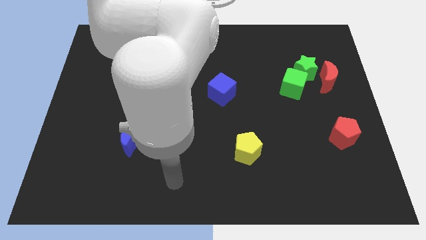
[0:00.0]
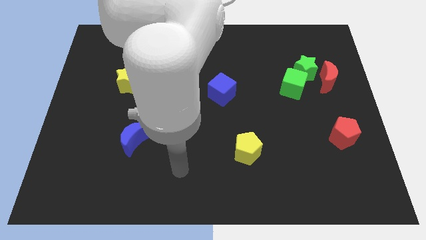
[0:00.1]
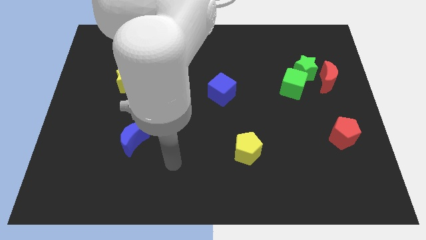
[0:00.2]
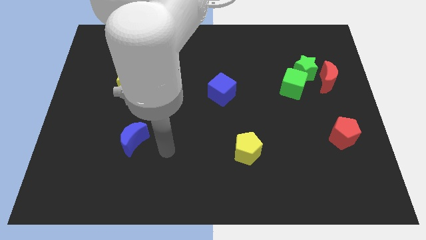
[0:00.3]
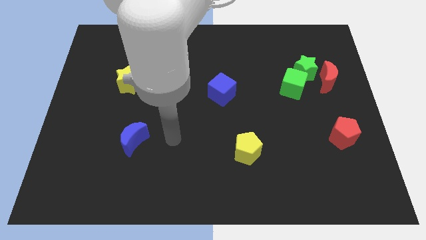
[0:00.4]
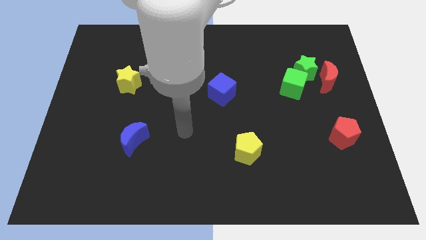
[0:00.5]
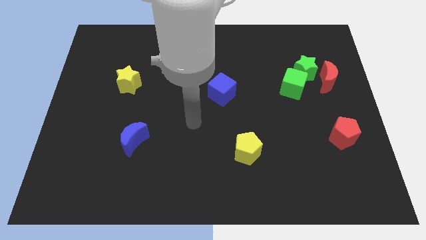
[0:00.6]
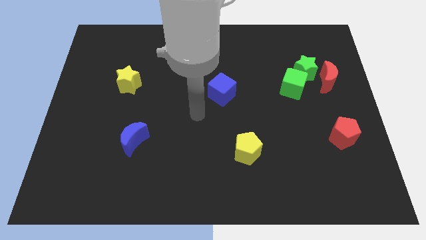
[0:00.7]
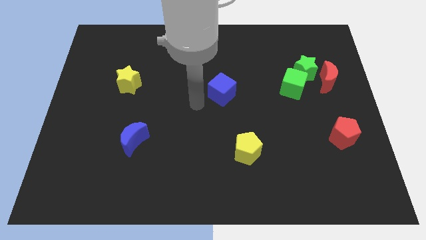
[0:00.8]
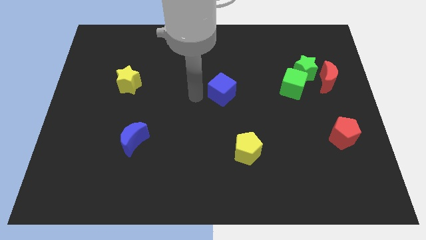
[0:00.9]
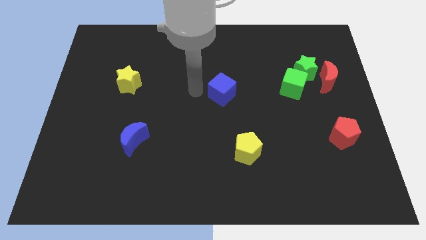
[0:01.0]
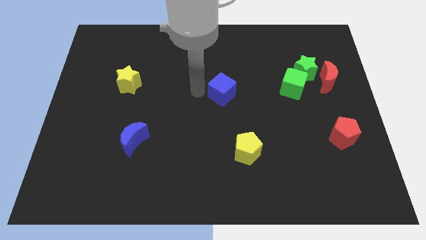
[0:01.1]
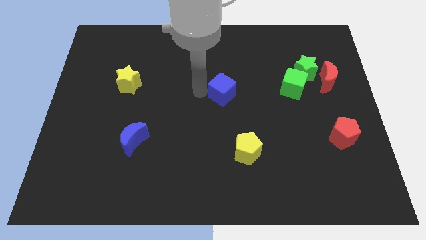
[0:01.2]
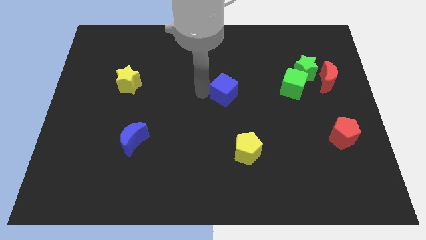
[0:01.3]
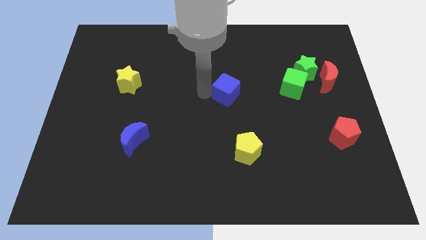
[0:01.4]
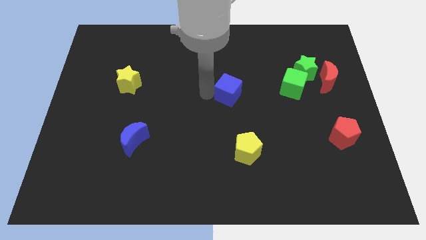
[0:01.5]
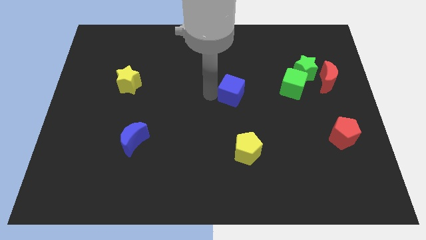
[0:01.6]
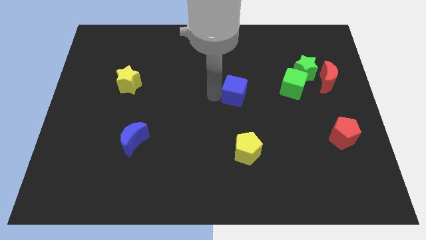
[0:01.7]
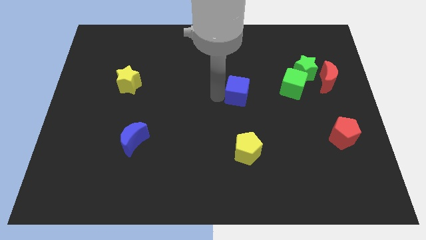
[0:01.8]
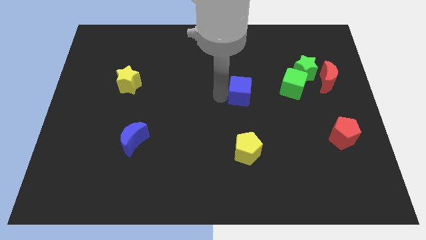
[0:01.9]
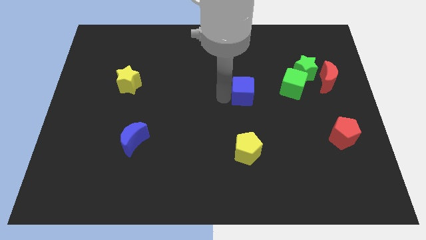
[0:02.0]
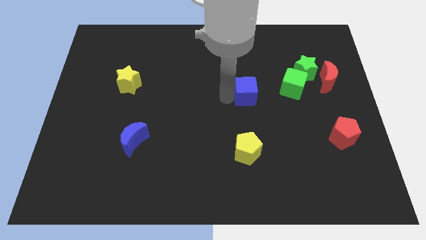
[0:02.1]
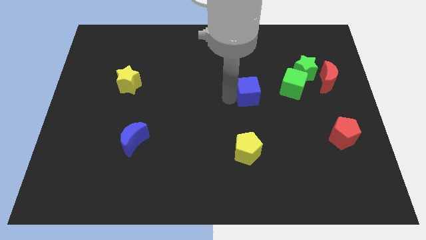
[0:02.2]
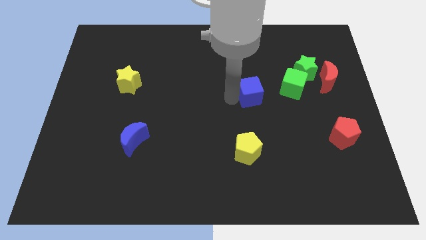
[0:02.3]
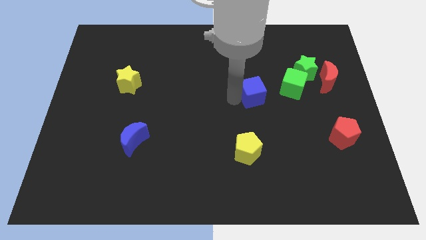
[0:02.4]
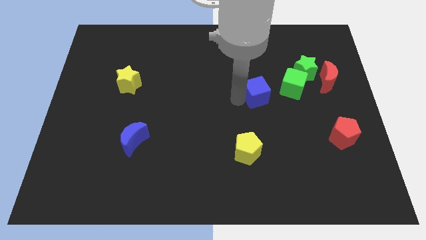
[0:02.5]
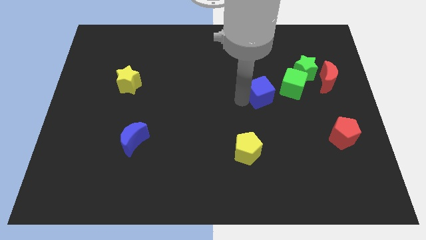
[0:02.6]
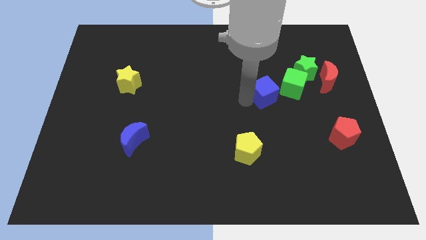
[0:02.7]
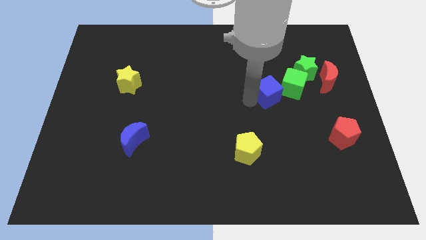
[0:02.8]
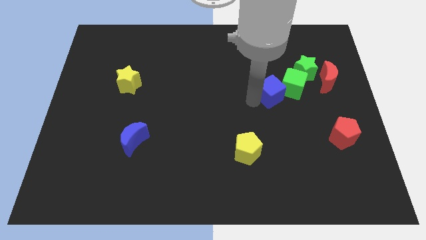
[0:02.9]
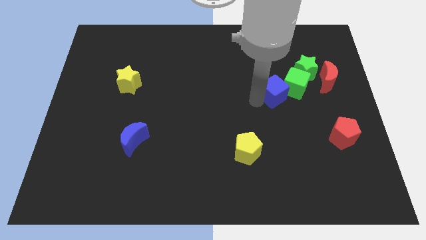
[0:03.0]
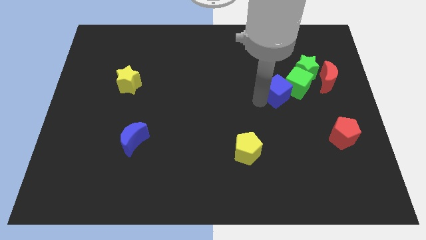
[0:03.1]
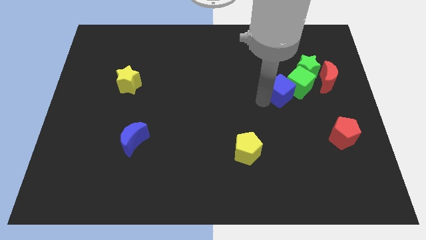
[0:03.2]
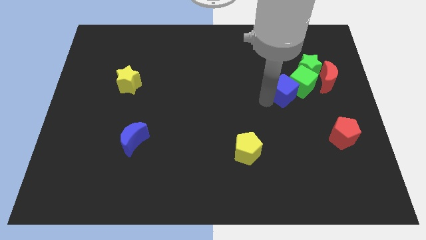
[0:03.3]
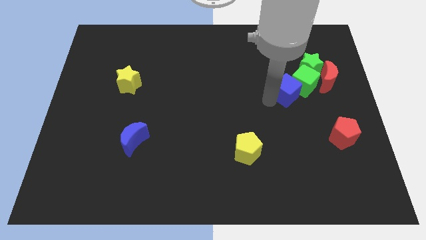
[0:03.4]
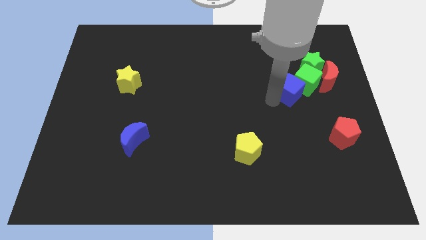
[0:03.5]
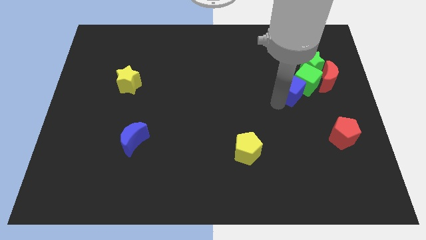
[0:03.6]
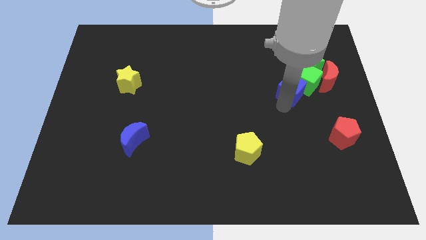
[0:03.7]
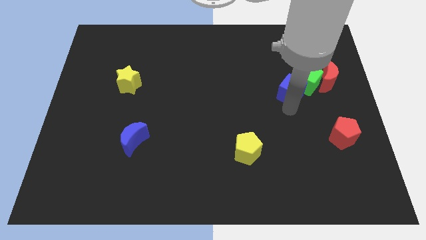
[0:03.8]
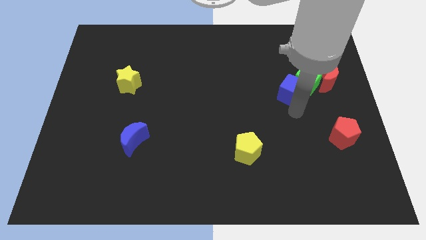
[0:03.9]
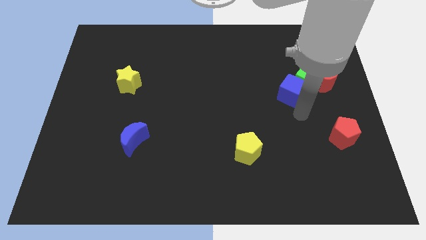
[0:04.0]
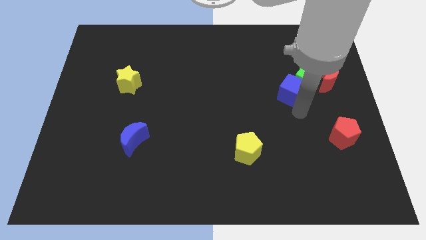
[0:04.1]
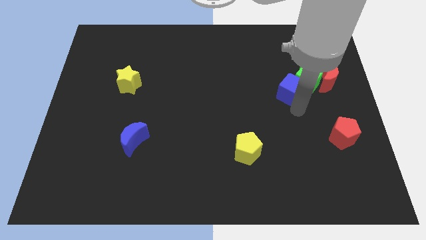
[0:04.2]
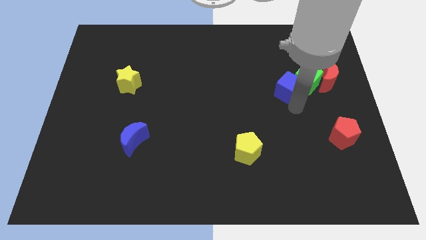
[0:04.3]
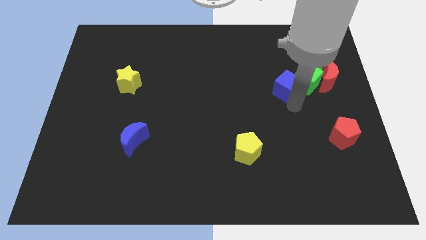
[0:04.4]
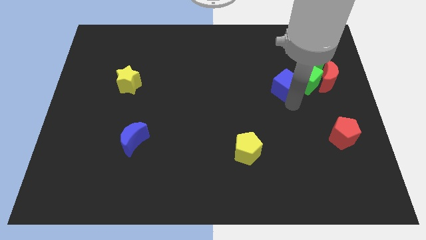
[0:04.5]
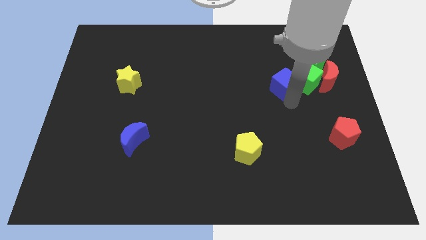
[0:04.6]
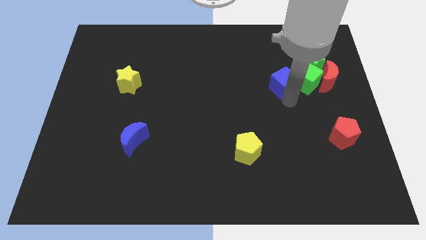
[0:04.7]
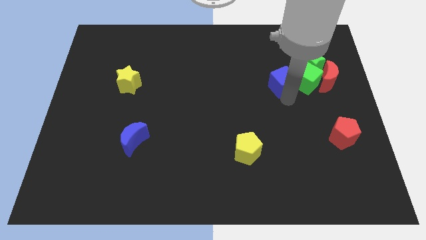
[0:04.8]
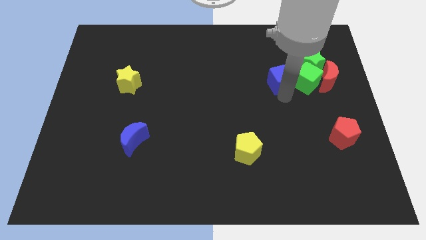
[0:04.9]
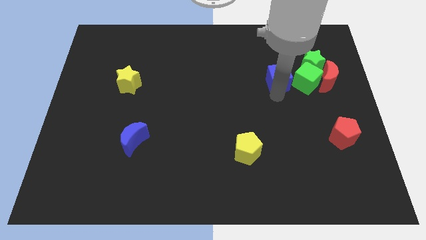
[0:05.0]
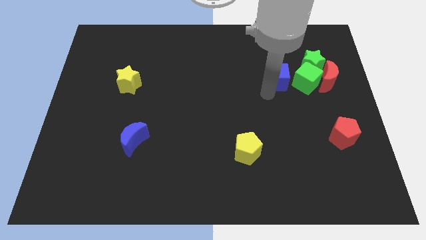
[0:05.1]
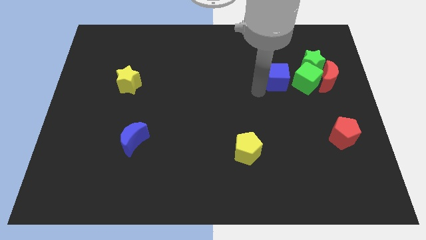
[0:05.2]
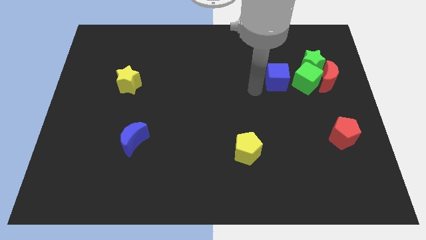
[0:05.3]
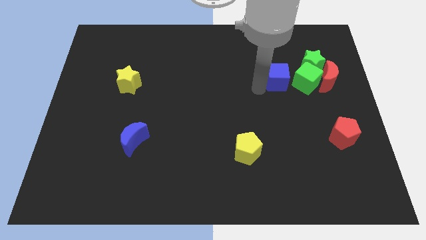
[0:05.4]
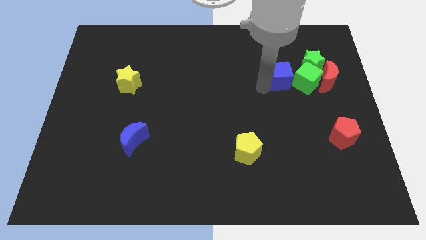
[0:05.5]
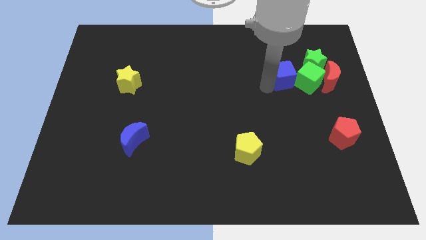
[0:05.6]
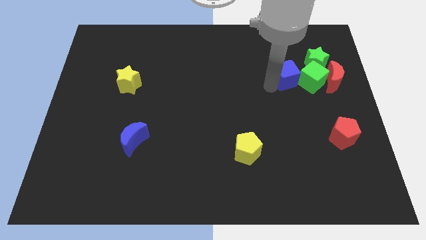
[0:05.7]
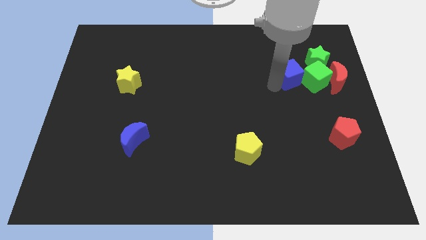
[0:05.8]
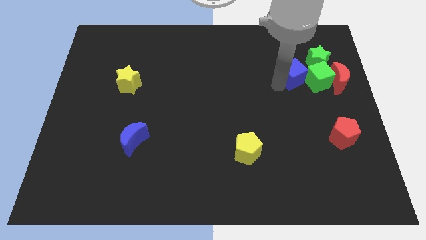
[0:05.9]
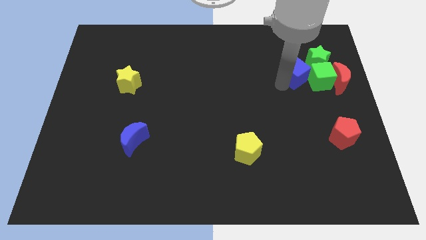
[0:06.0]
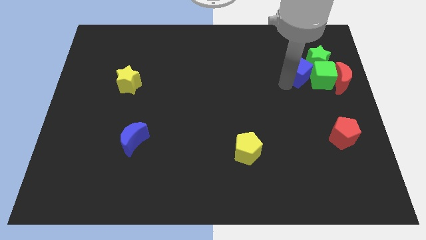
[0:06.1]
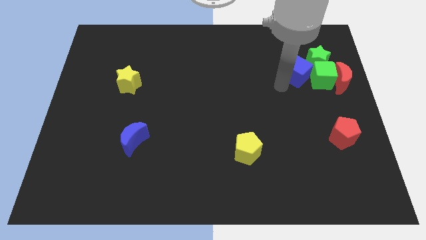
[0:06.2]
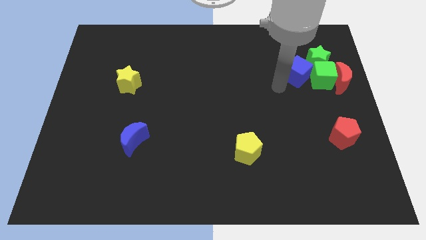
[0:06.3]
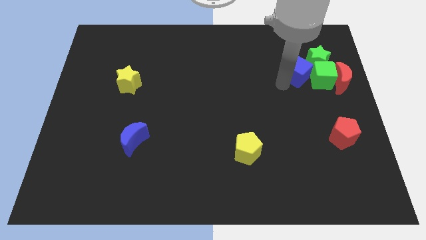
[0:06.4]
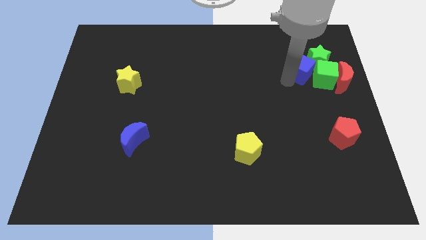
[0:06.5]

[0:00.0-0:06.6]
move the blue cube to the green star

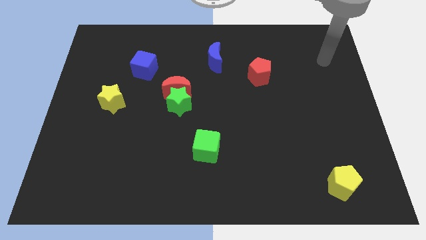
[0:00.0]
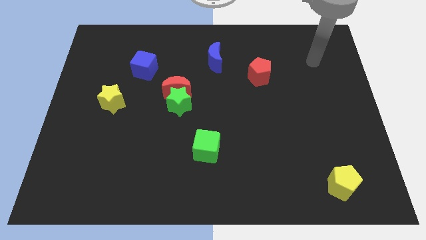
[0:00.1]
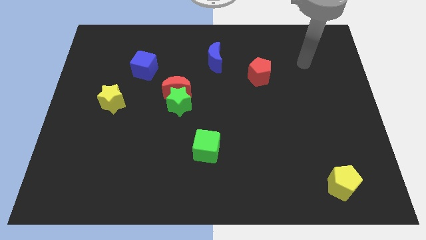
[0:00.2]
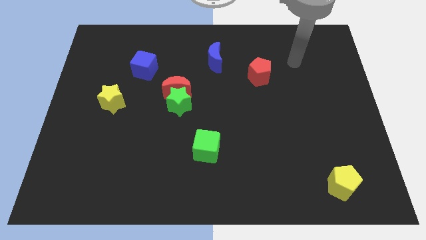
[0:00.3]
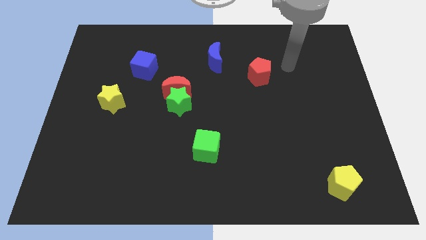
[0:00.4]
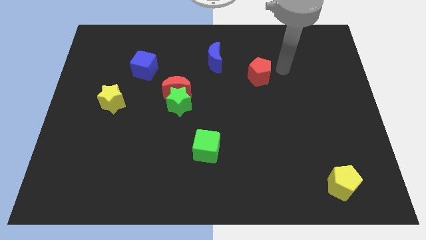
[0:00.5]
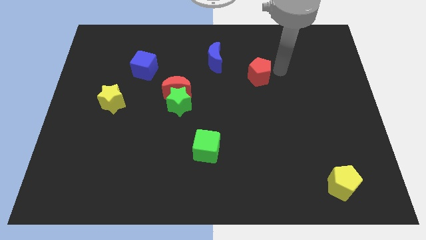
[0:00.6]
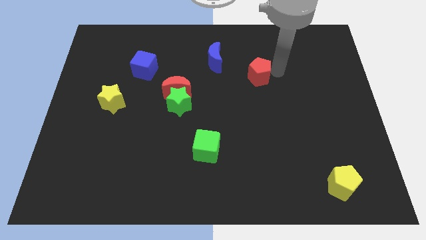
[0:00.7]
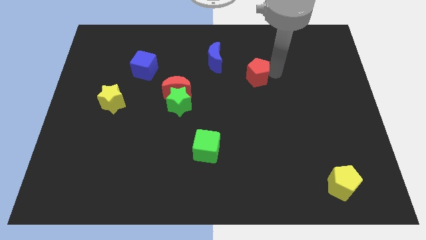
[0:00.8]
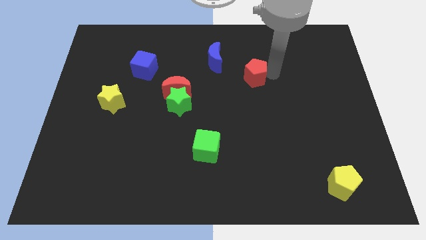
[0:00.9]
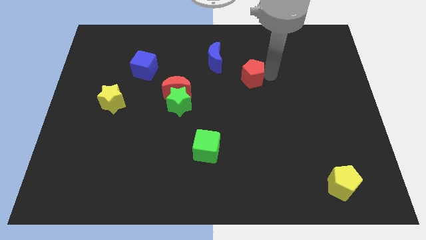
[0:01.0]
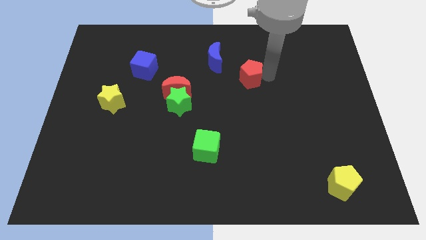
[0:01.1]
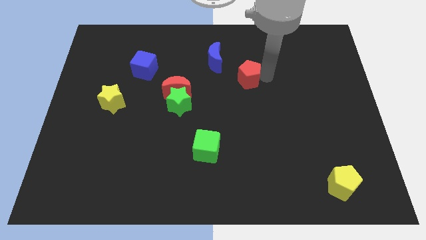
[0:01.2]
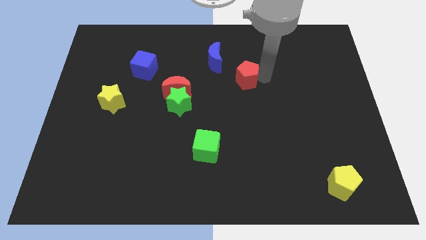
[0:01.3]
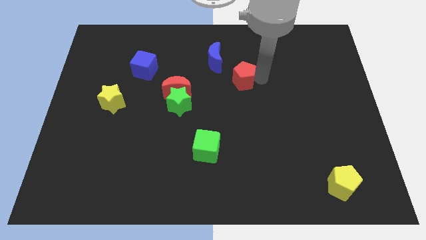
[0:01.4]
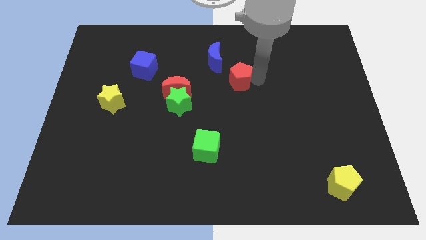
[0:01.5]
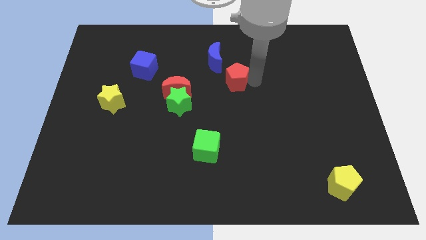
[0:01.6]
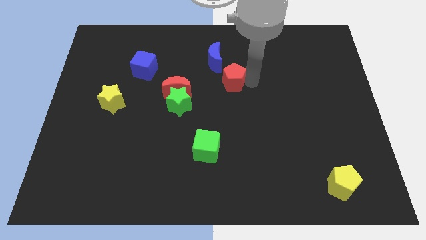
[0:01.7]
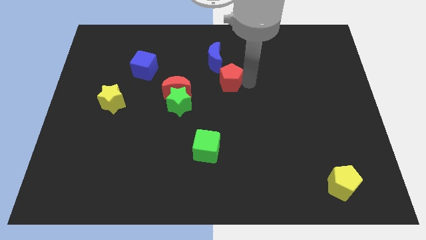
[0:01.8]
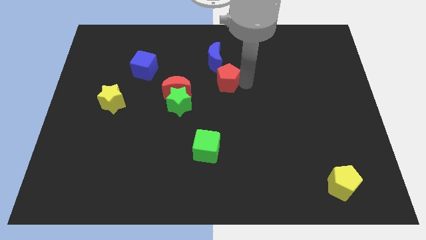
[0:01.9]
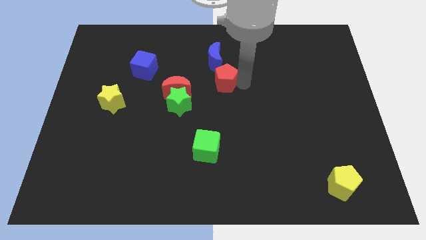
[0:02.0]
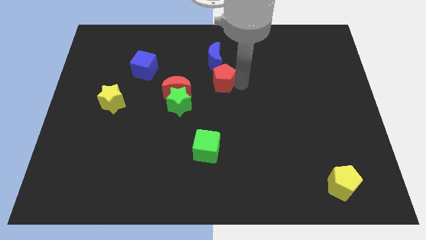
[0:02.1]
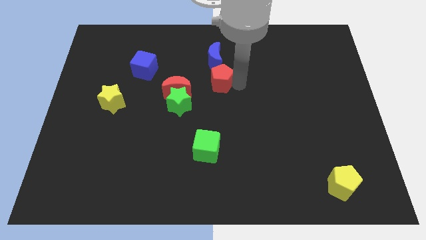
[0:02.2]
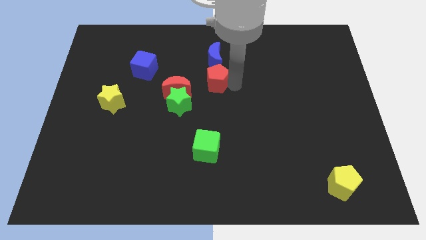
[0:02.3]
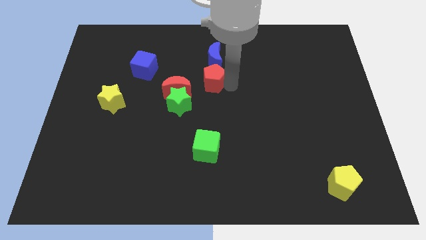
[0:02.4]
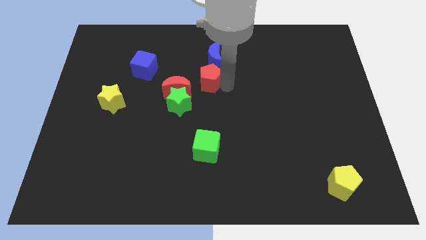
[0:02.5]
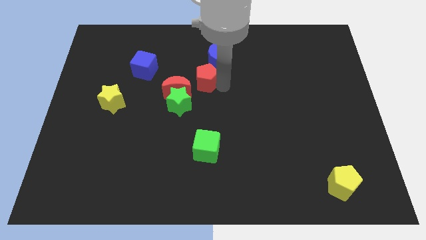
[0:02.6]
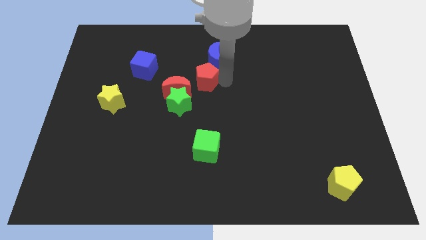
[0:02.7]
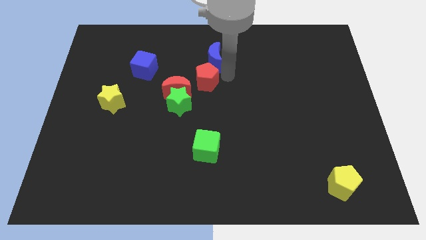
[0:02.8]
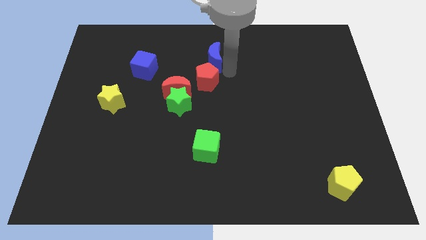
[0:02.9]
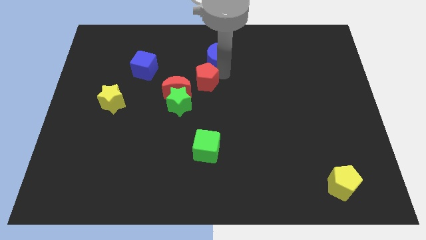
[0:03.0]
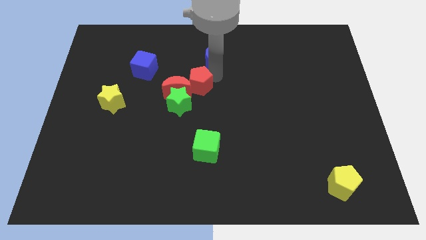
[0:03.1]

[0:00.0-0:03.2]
put the red pentagon to the red moon
